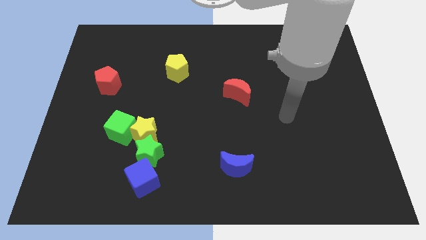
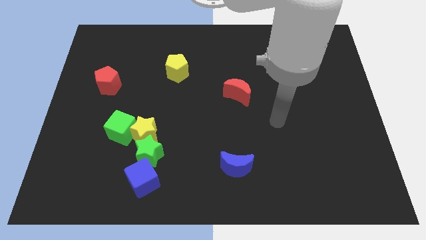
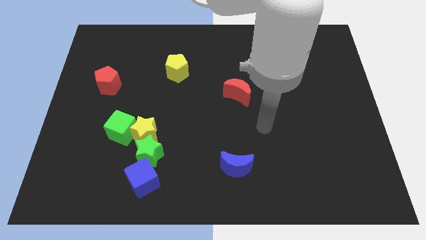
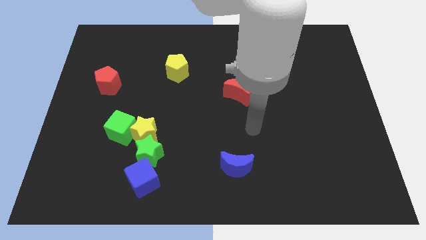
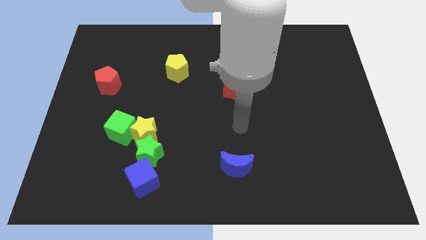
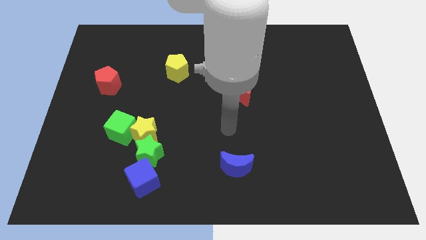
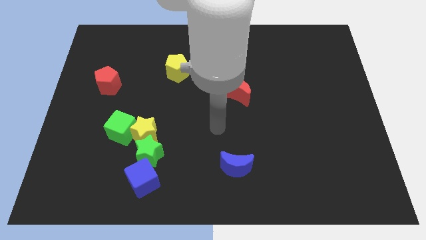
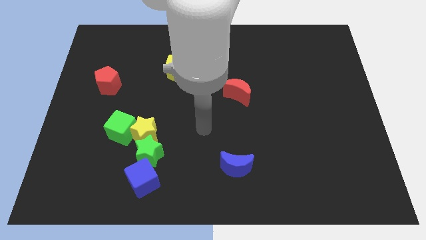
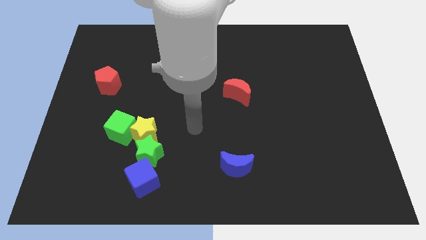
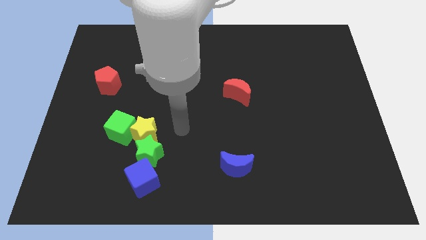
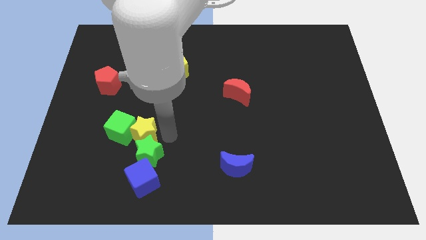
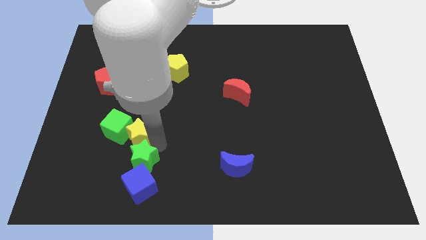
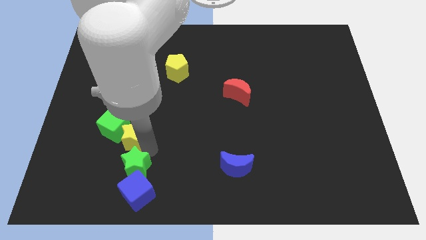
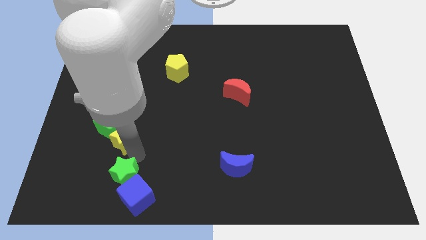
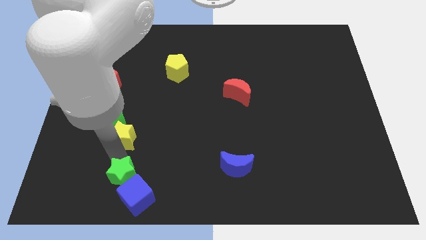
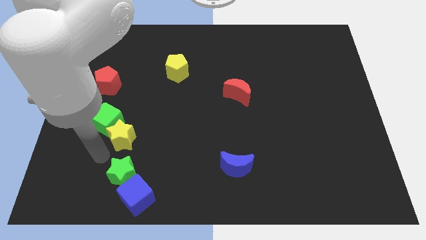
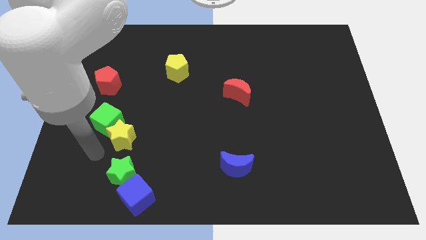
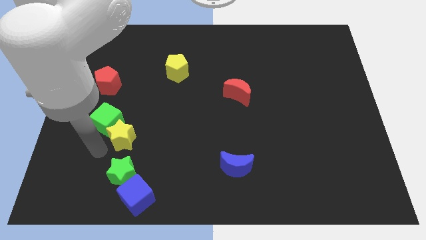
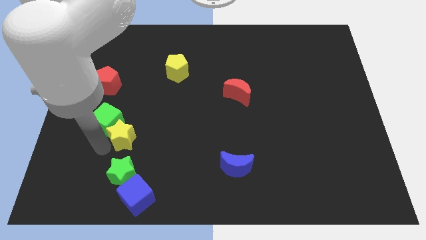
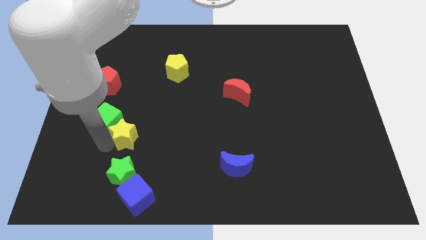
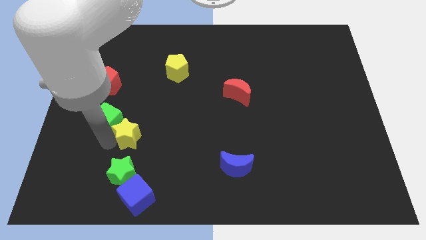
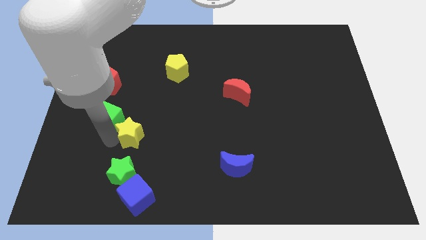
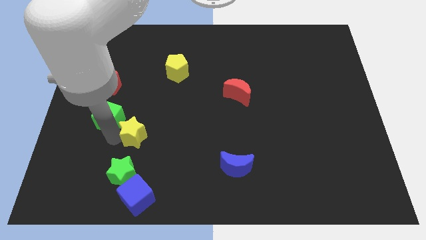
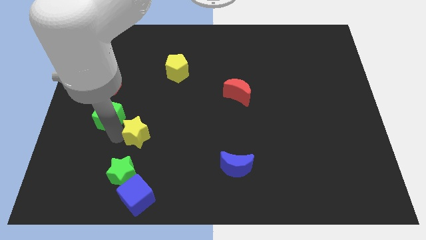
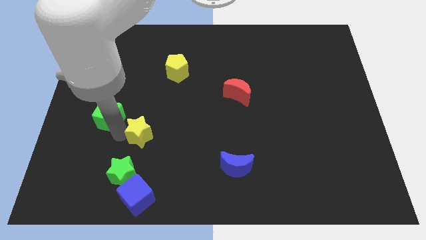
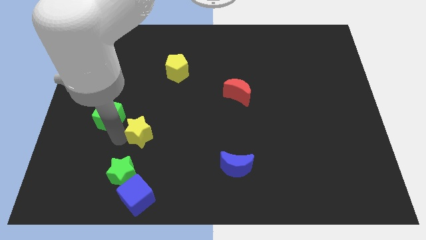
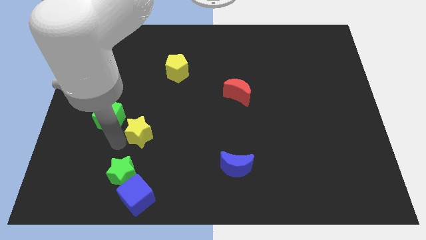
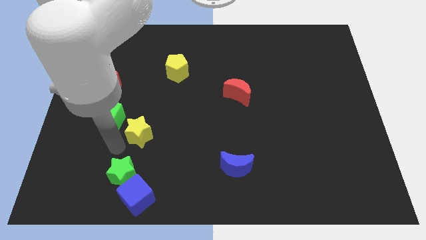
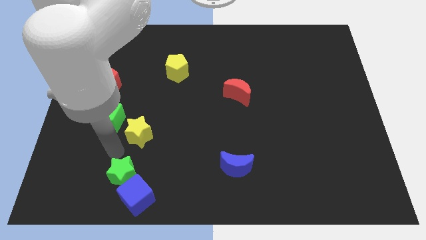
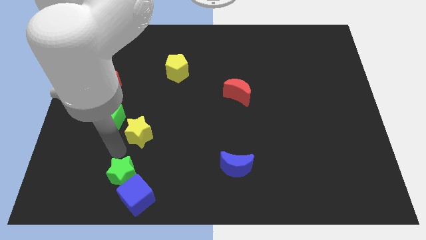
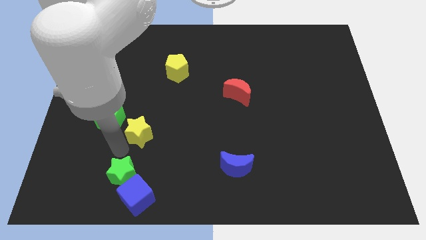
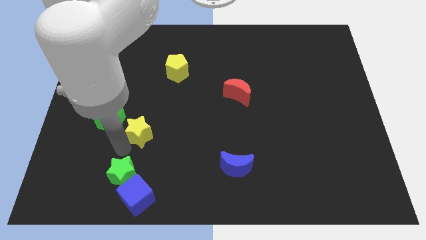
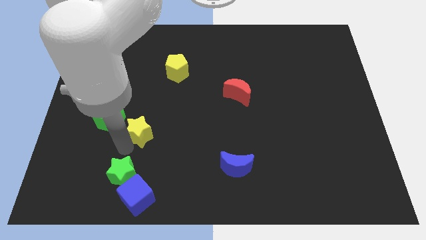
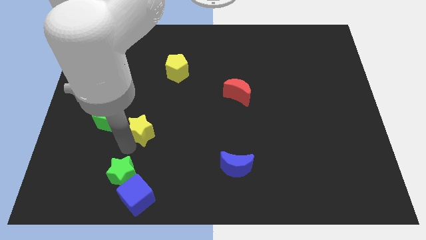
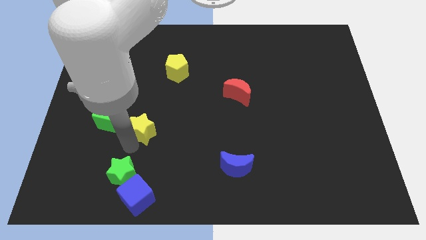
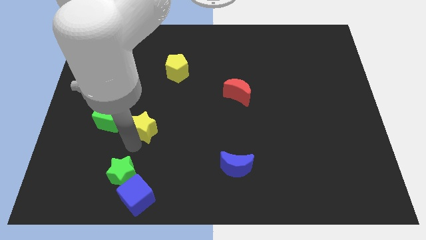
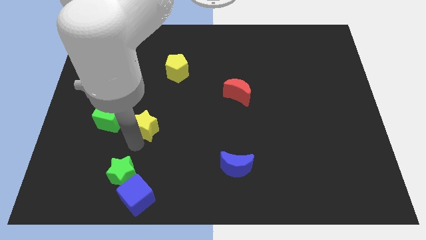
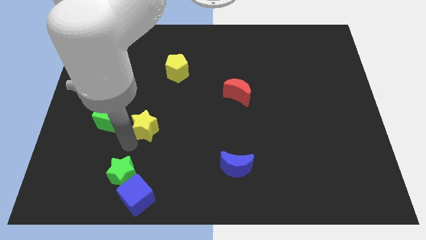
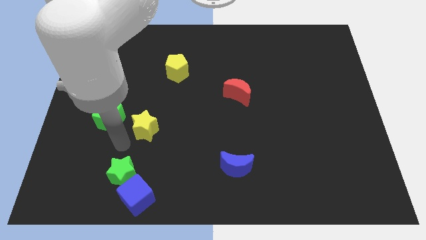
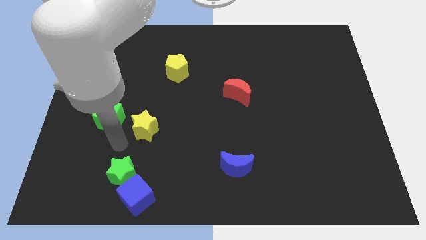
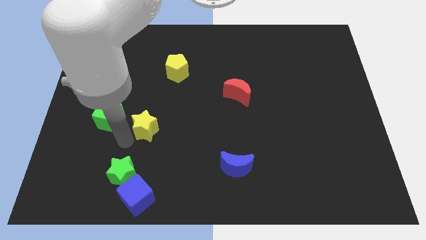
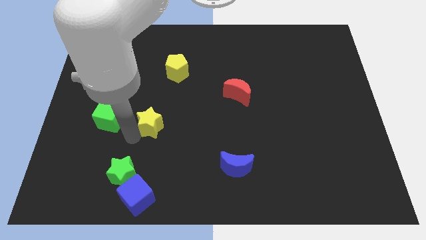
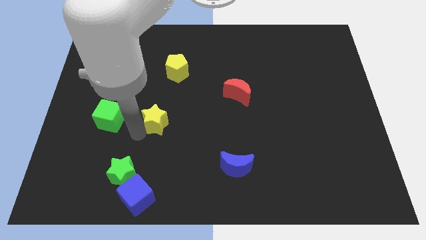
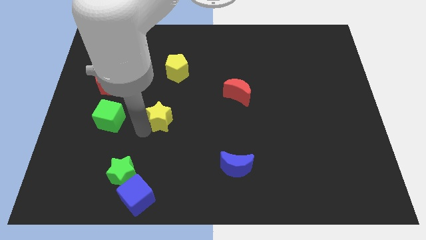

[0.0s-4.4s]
move the yellow star away from the green star and green cube

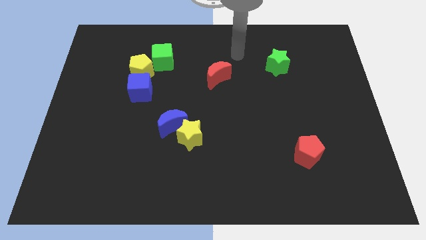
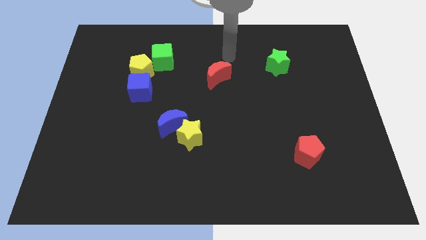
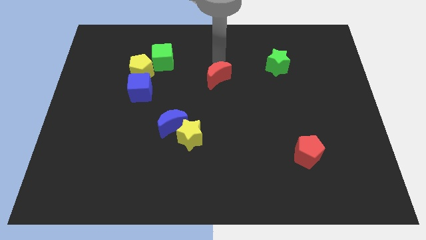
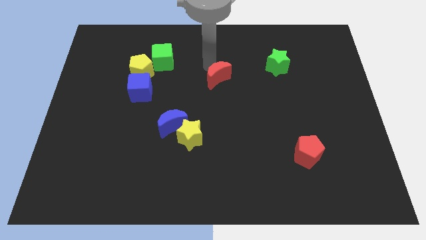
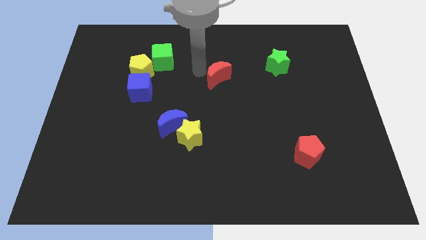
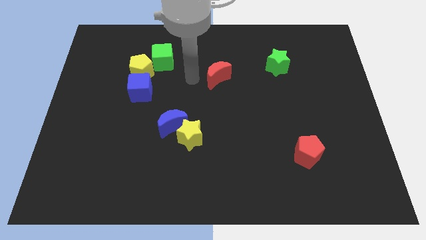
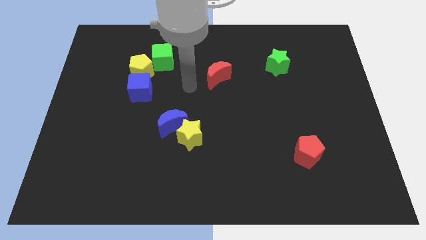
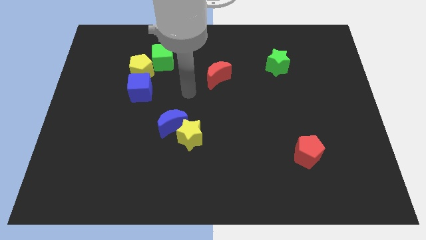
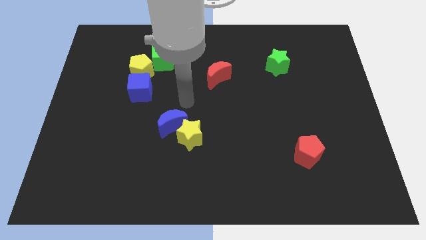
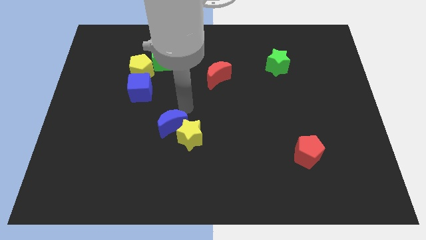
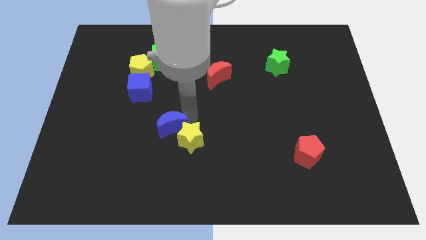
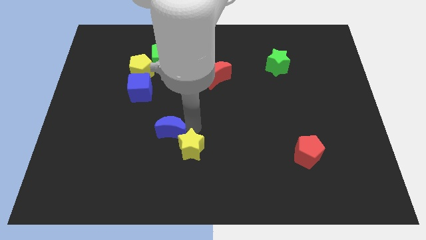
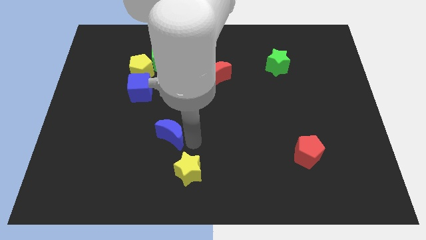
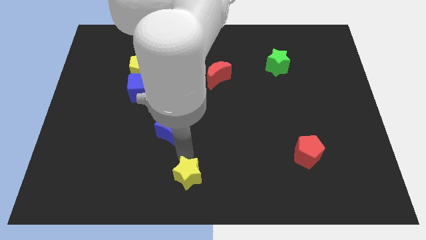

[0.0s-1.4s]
separate the blue moon from the yellow star

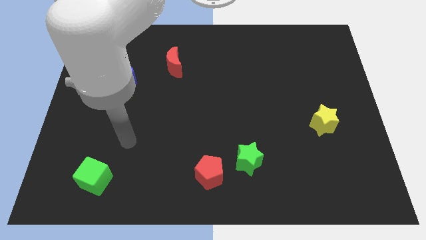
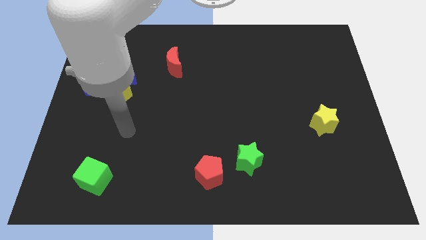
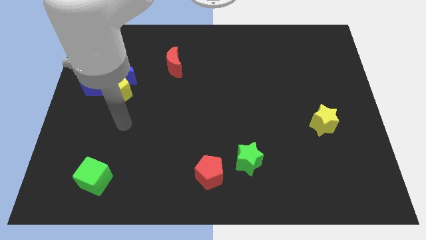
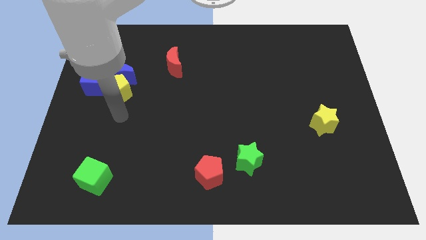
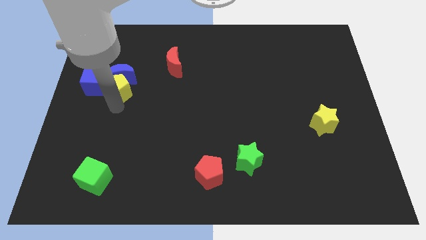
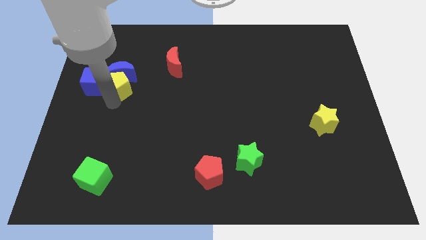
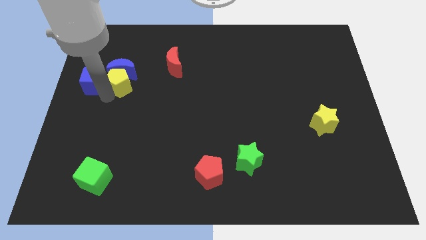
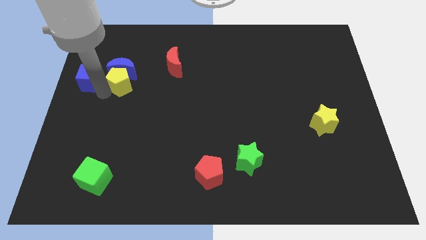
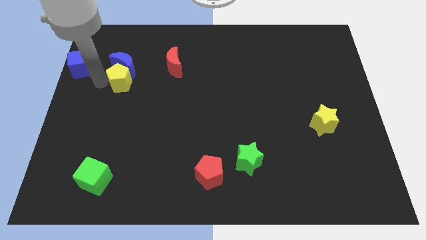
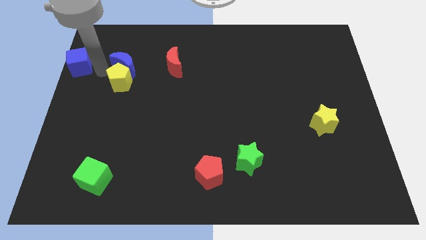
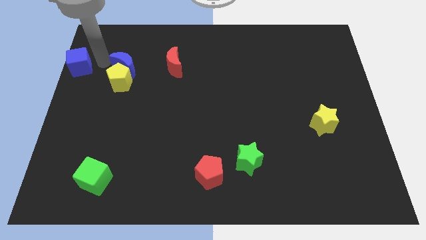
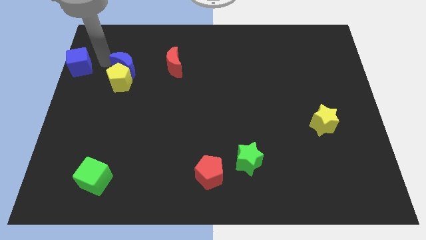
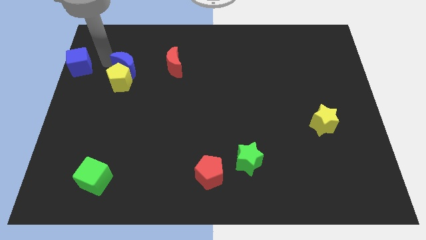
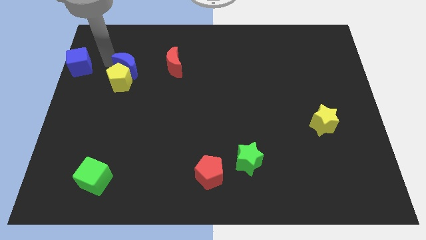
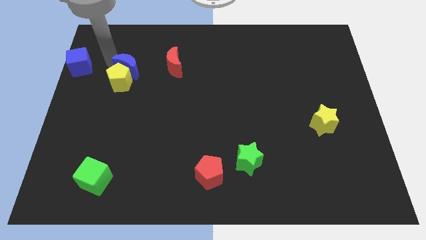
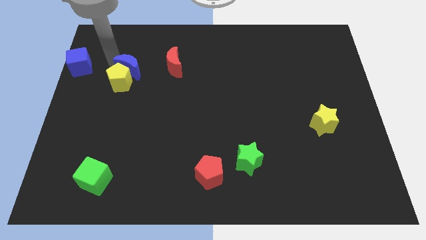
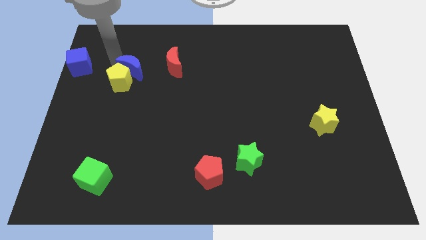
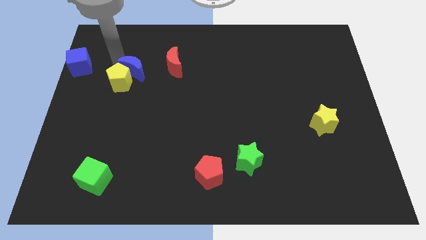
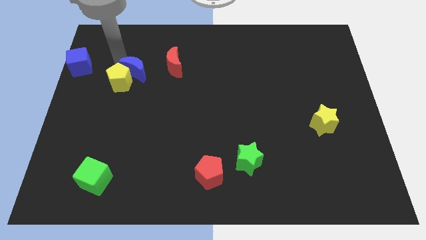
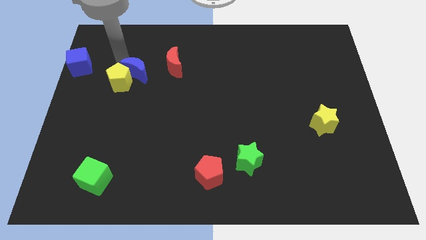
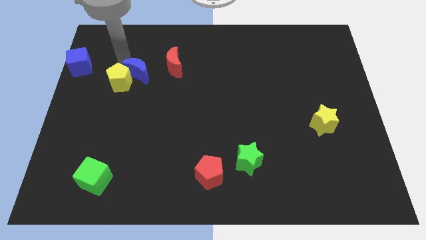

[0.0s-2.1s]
move the blue moon away from the yellow pentagon and blue cube

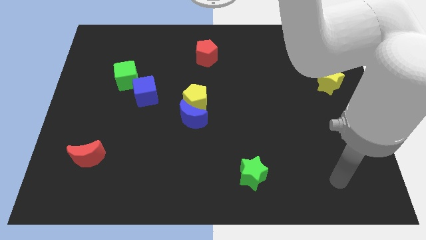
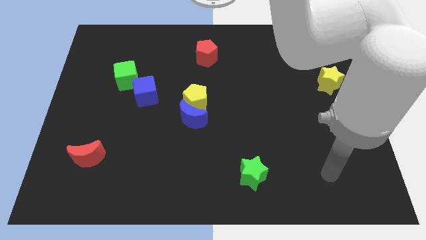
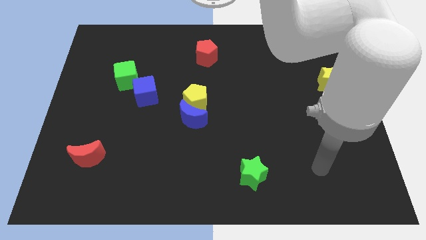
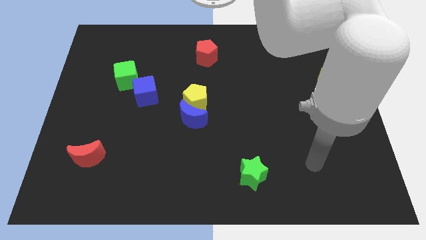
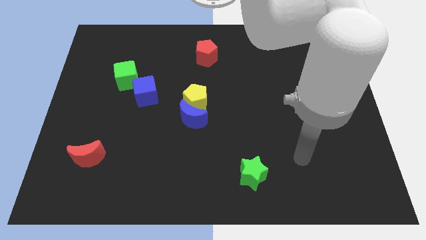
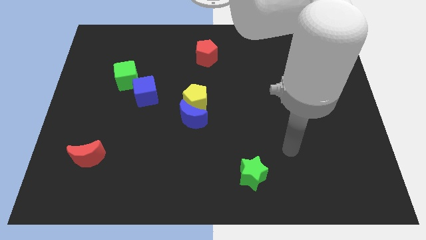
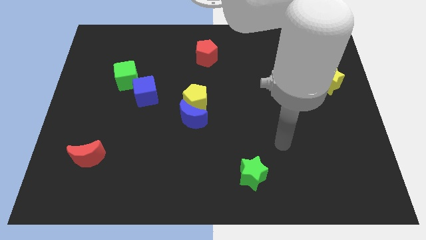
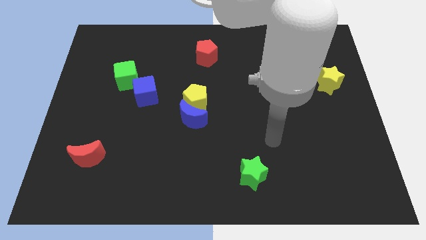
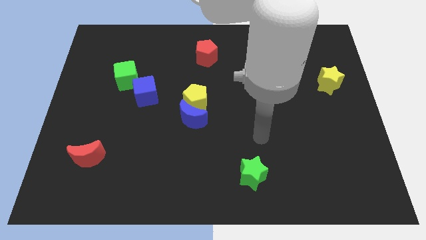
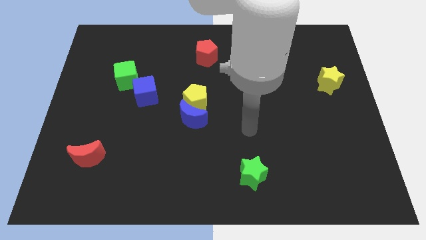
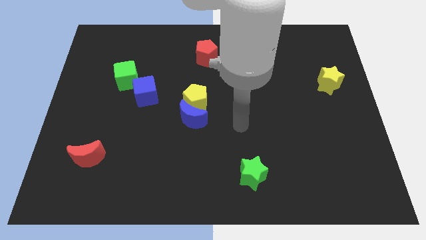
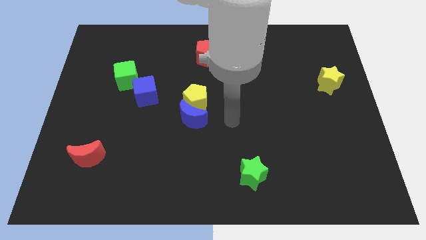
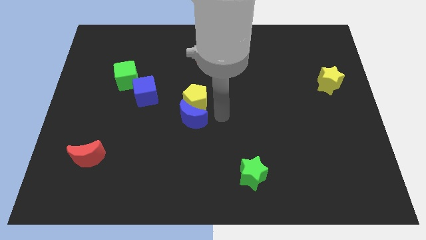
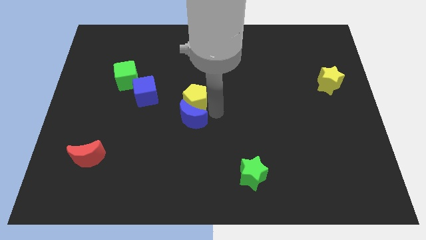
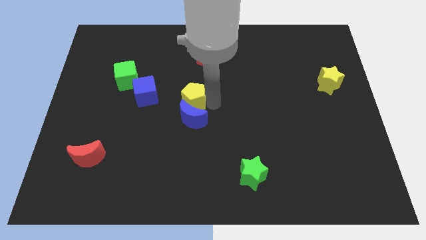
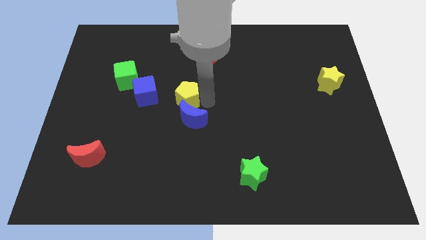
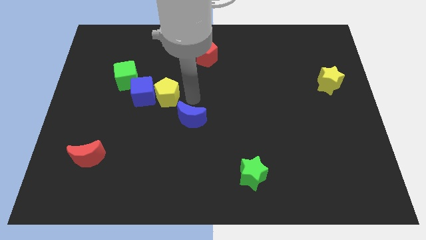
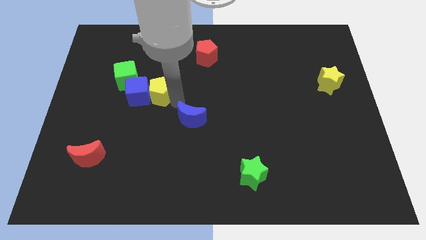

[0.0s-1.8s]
pull the blue moon apart from the yellow pentagon
